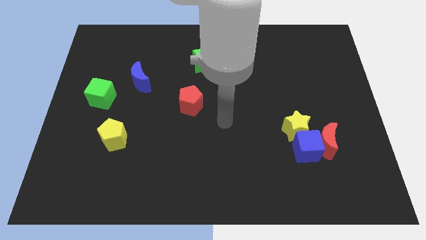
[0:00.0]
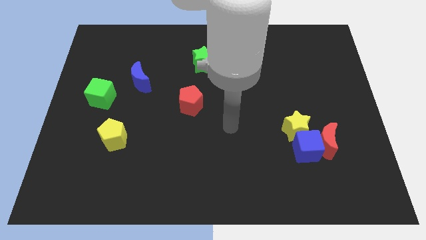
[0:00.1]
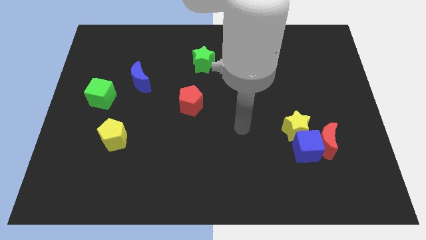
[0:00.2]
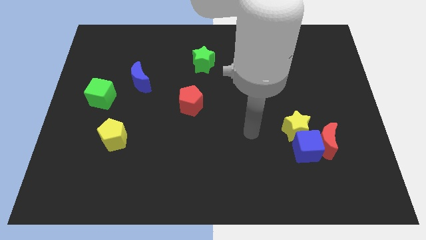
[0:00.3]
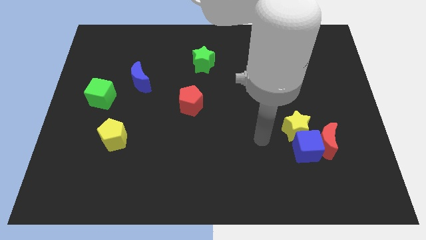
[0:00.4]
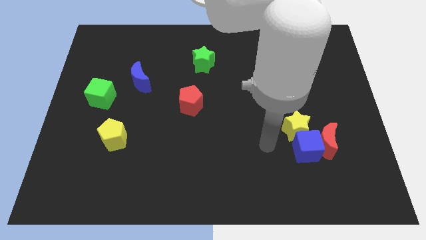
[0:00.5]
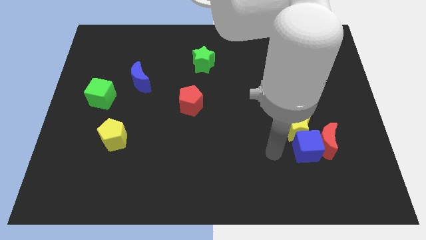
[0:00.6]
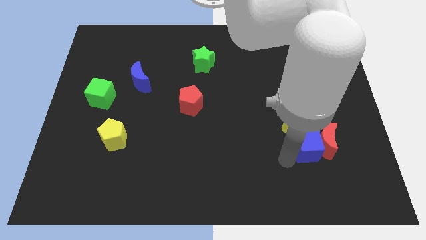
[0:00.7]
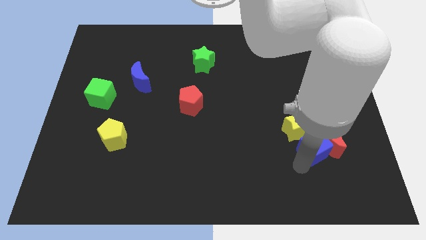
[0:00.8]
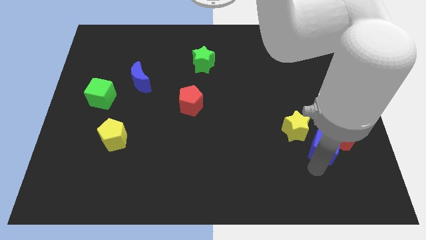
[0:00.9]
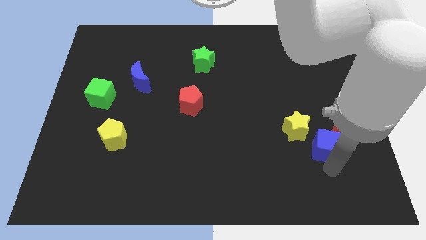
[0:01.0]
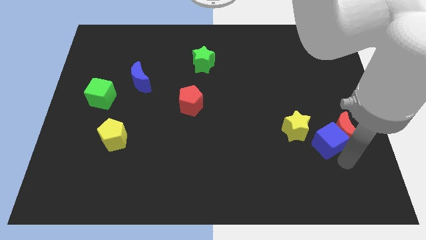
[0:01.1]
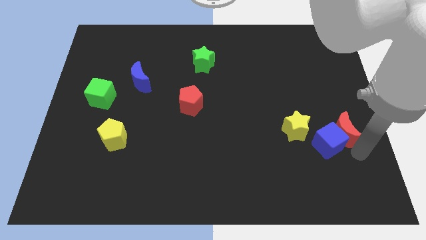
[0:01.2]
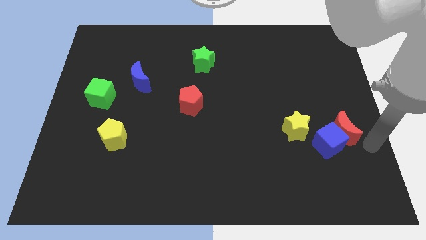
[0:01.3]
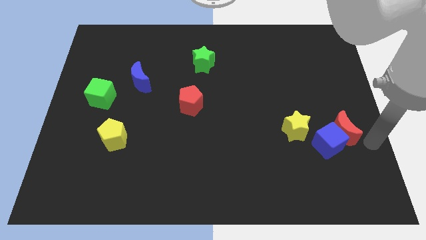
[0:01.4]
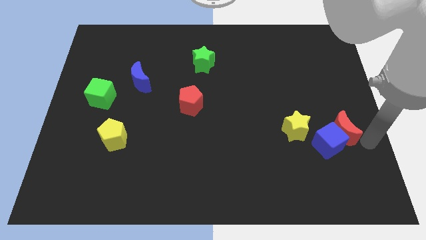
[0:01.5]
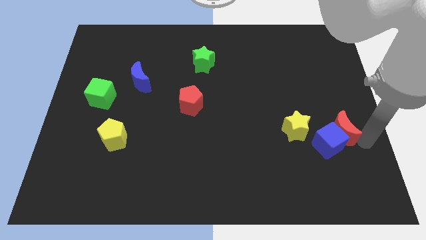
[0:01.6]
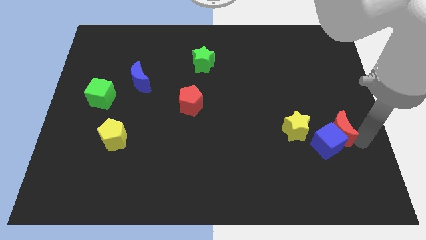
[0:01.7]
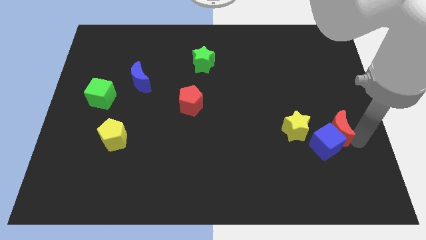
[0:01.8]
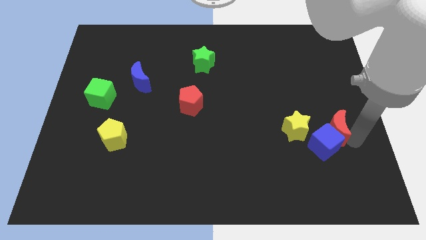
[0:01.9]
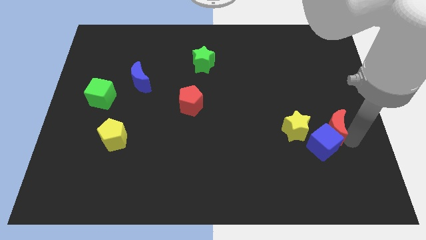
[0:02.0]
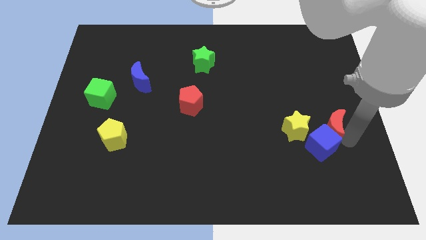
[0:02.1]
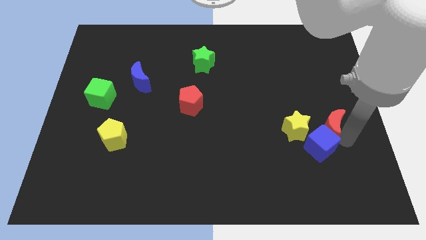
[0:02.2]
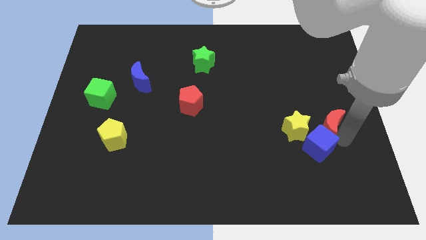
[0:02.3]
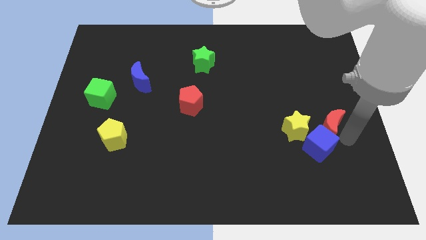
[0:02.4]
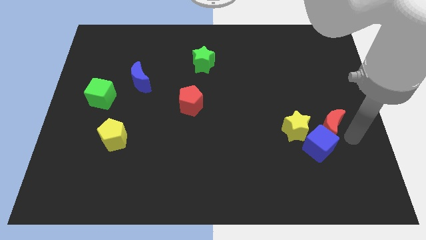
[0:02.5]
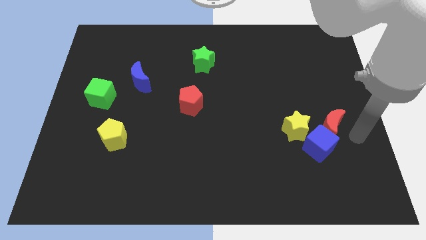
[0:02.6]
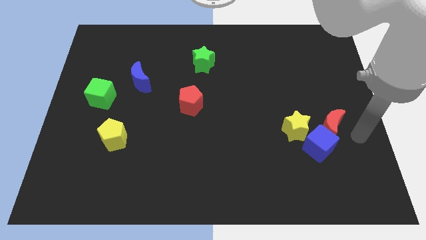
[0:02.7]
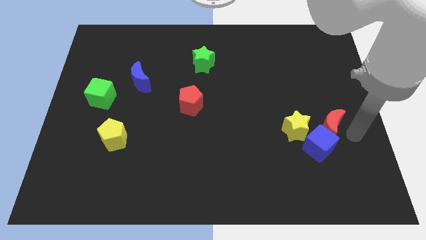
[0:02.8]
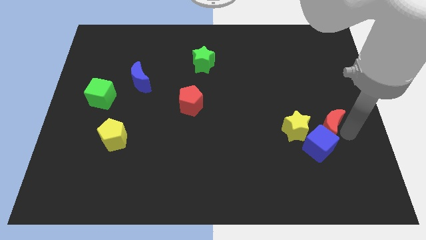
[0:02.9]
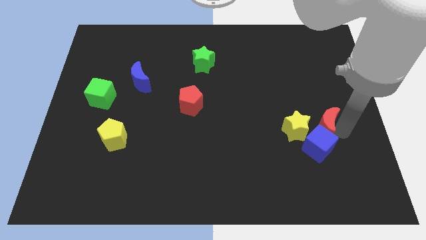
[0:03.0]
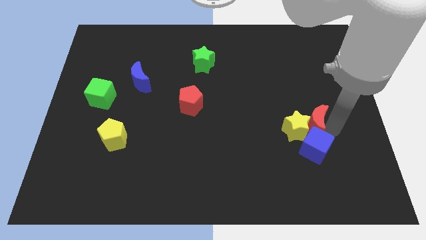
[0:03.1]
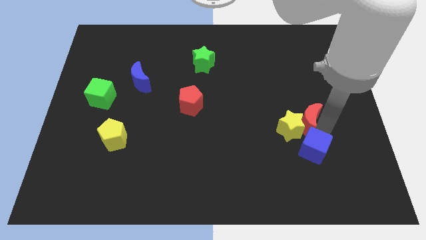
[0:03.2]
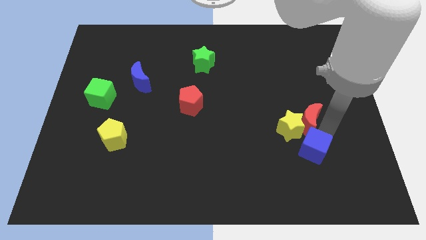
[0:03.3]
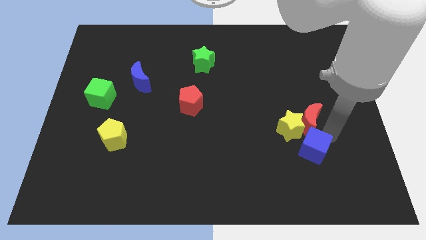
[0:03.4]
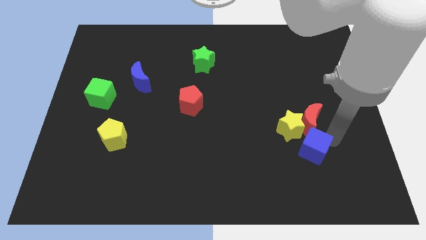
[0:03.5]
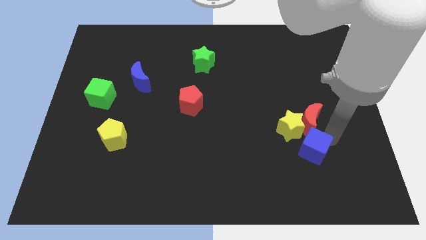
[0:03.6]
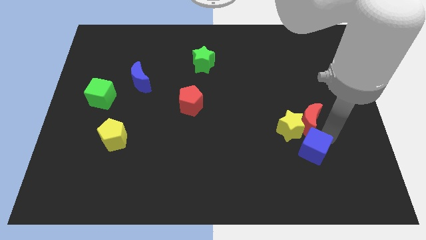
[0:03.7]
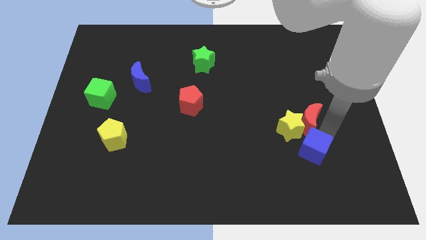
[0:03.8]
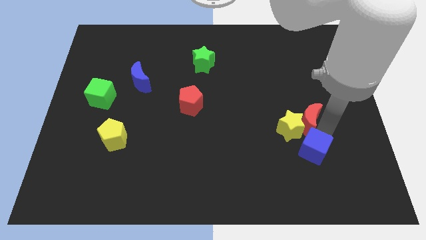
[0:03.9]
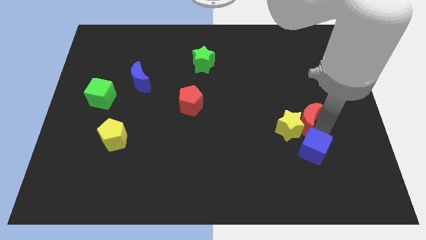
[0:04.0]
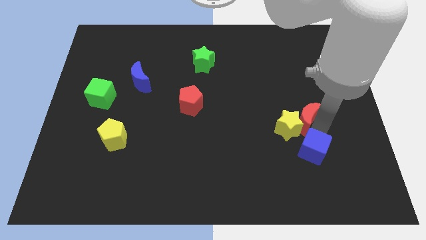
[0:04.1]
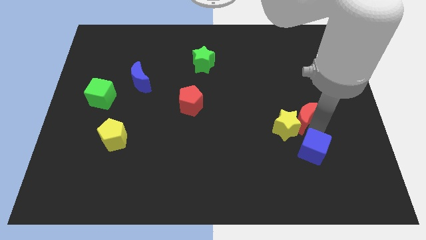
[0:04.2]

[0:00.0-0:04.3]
slightly move the red moon up and left

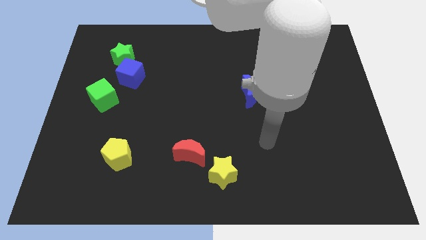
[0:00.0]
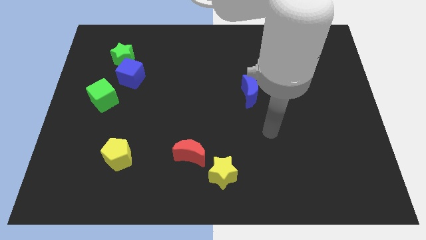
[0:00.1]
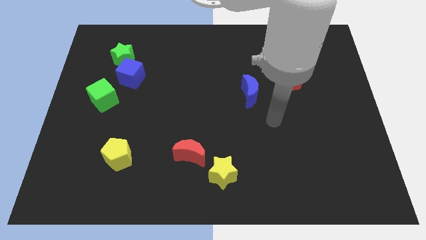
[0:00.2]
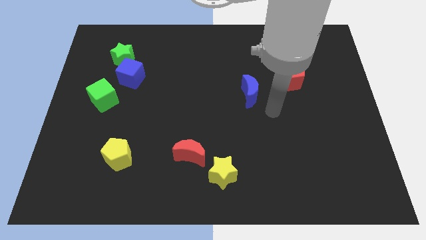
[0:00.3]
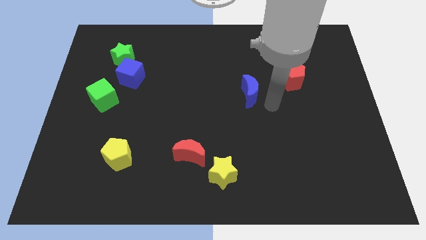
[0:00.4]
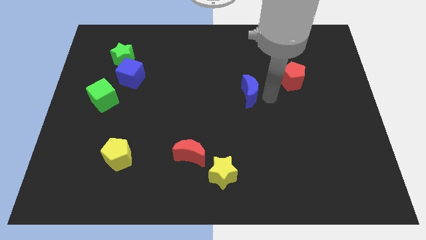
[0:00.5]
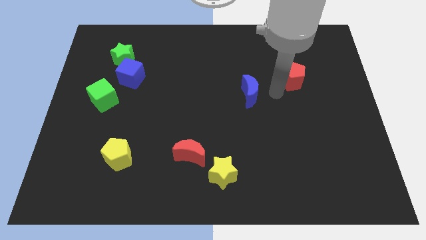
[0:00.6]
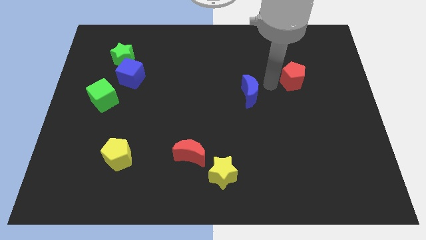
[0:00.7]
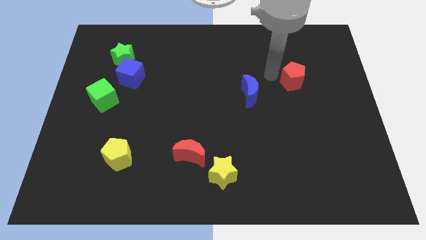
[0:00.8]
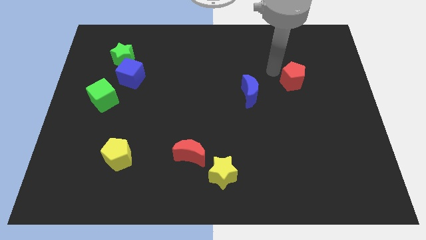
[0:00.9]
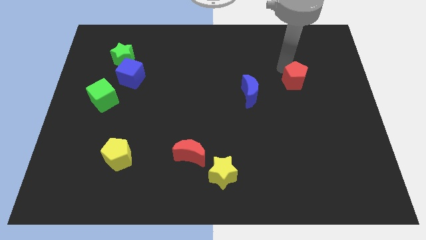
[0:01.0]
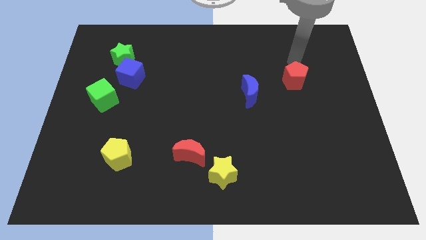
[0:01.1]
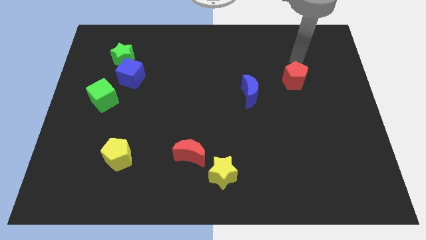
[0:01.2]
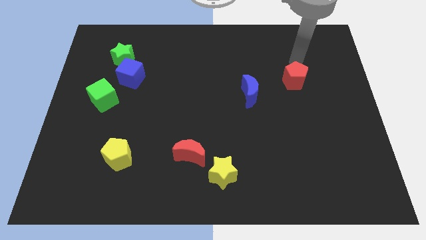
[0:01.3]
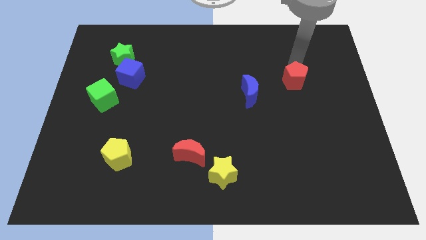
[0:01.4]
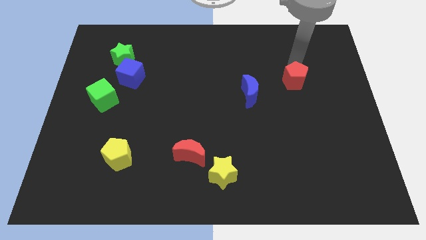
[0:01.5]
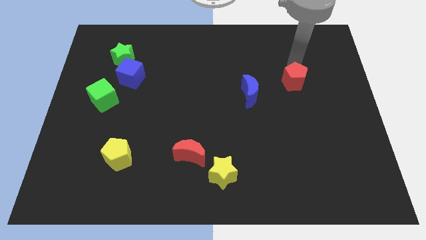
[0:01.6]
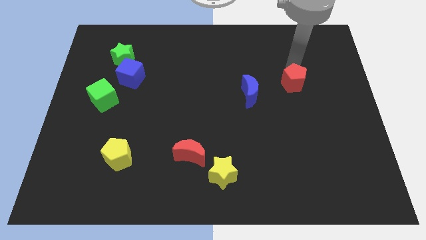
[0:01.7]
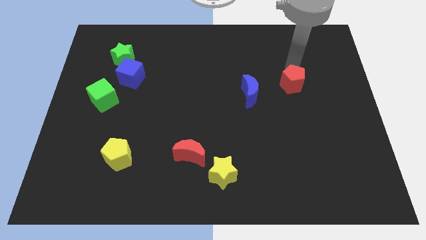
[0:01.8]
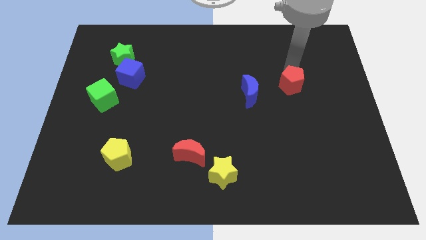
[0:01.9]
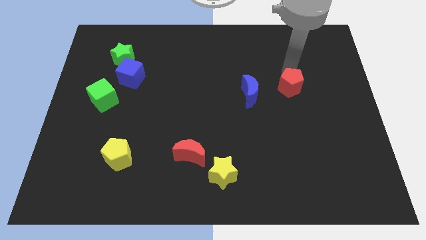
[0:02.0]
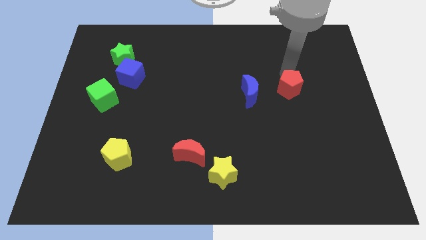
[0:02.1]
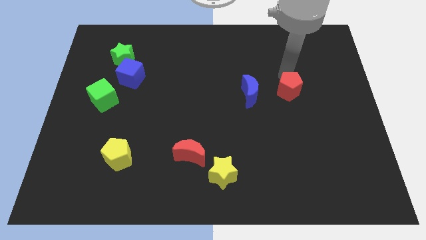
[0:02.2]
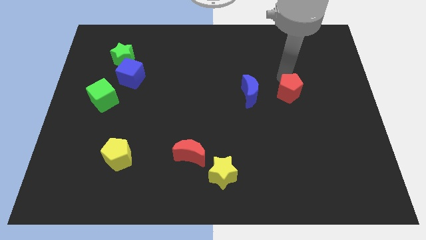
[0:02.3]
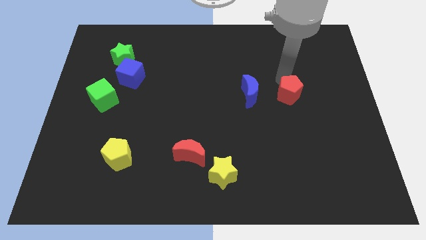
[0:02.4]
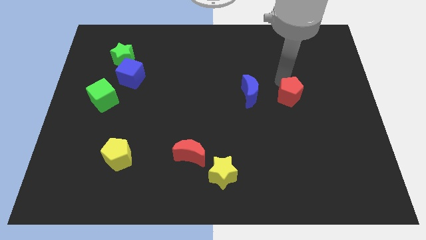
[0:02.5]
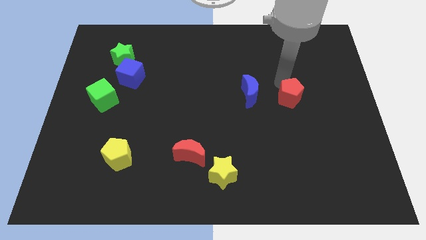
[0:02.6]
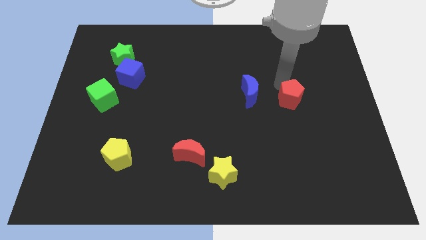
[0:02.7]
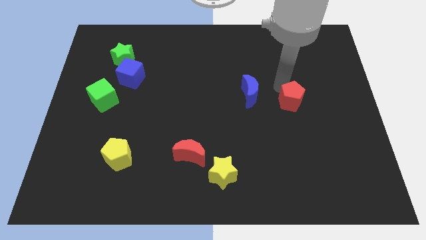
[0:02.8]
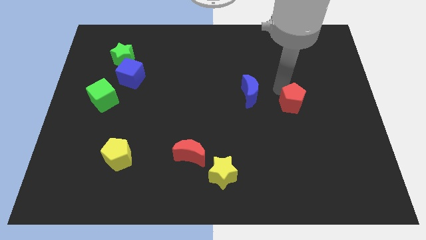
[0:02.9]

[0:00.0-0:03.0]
push the red pentagon downwards a little bit

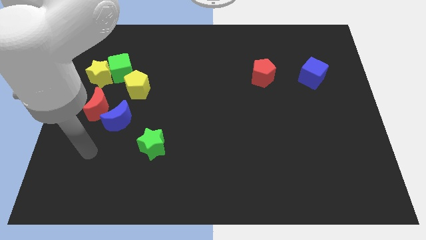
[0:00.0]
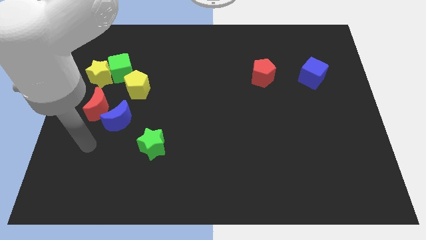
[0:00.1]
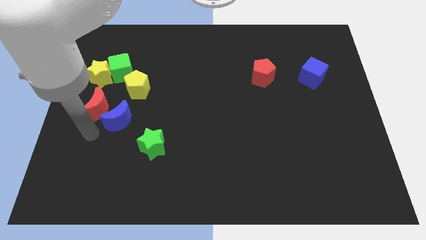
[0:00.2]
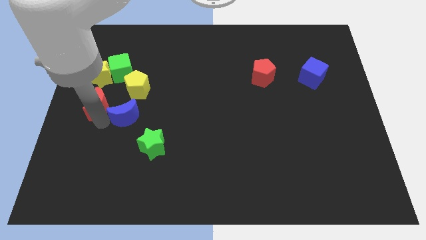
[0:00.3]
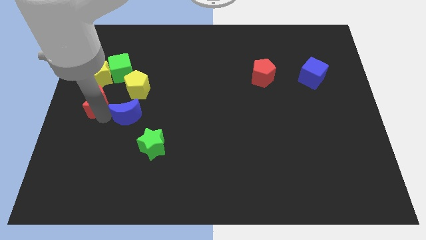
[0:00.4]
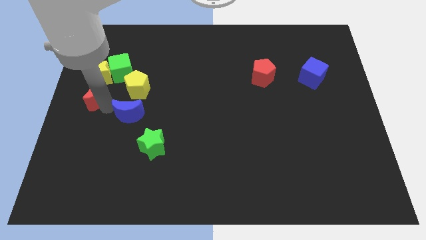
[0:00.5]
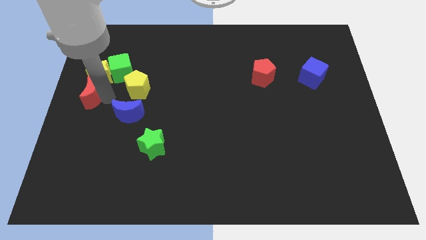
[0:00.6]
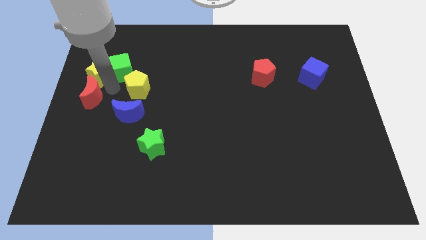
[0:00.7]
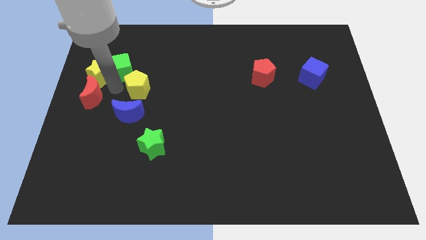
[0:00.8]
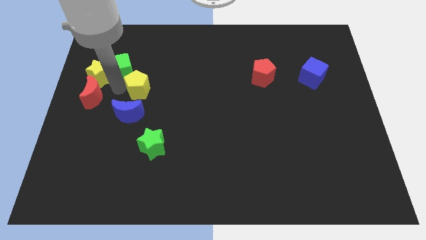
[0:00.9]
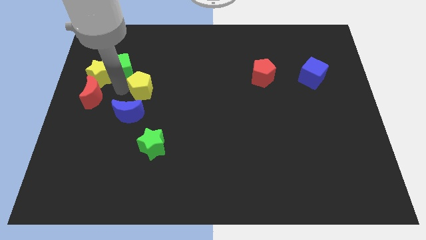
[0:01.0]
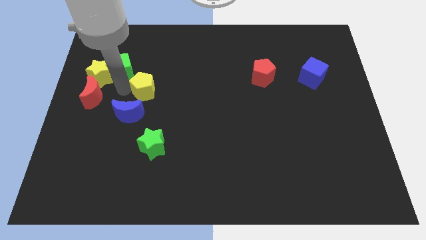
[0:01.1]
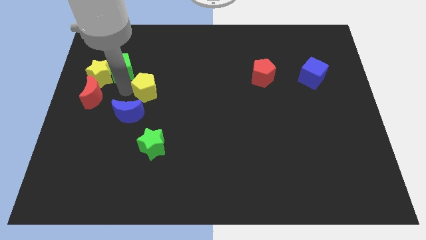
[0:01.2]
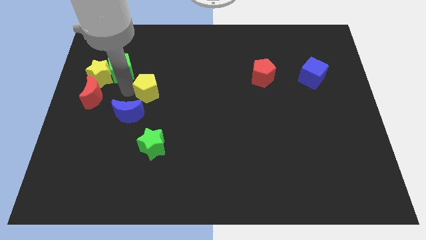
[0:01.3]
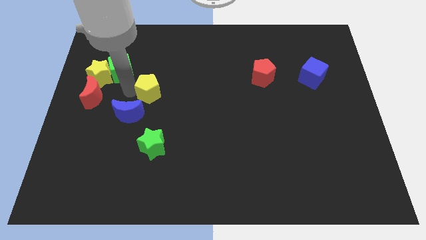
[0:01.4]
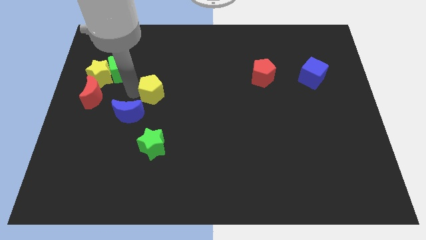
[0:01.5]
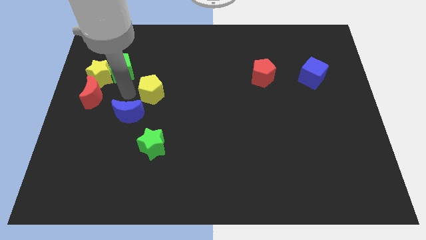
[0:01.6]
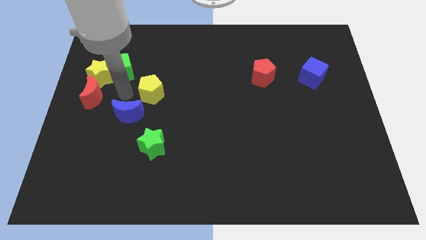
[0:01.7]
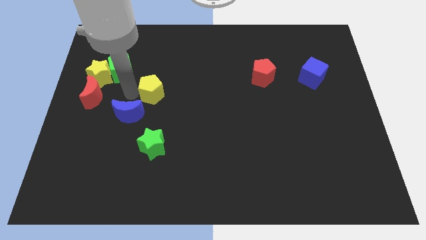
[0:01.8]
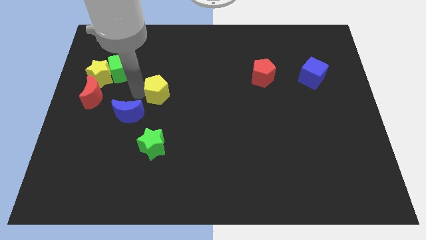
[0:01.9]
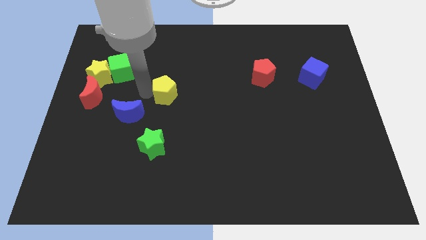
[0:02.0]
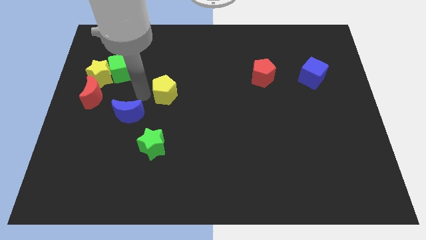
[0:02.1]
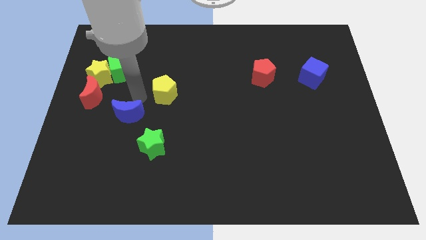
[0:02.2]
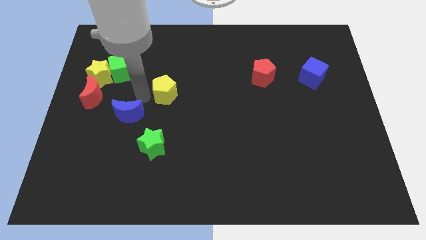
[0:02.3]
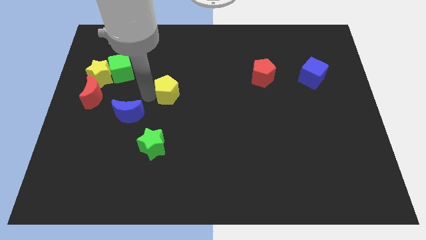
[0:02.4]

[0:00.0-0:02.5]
move the yellow pentagon to the right a little bit
